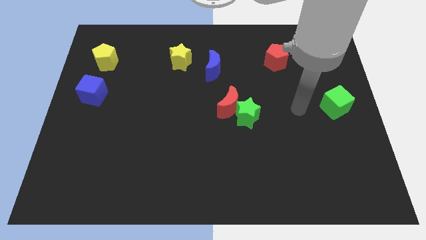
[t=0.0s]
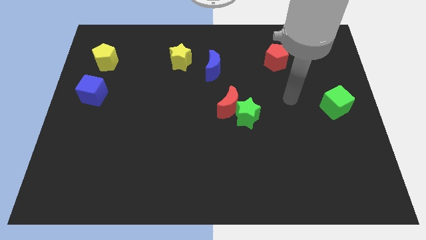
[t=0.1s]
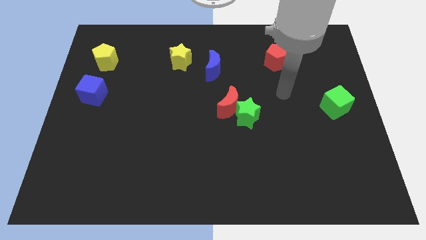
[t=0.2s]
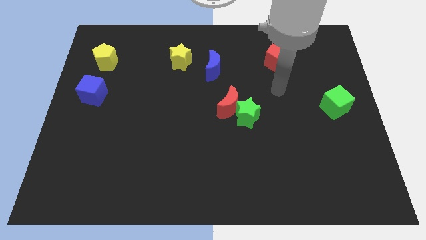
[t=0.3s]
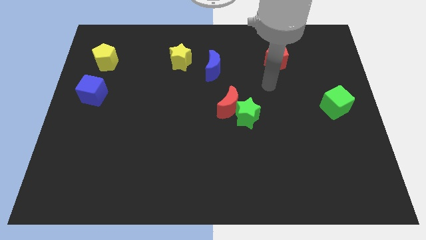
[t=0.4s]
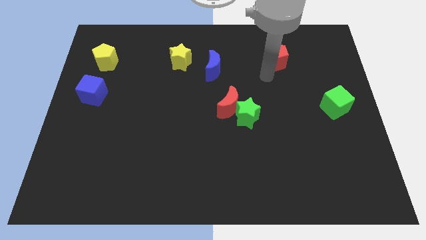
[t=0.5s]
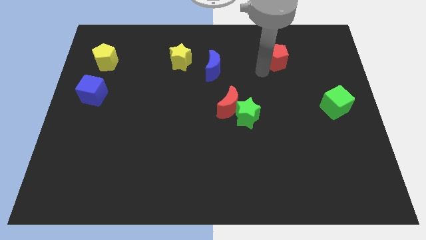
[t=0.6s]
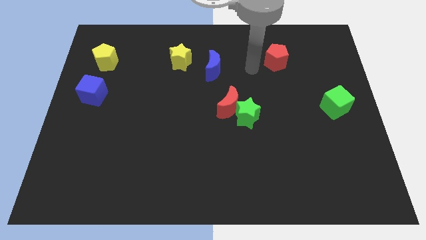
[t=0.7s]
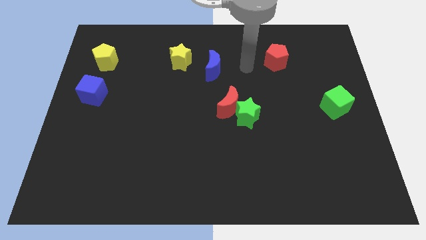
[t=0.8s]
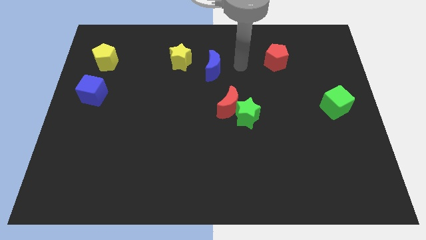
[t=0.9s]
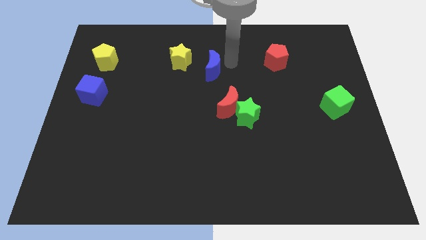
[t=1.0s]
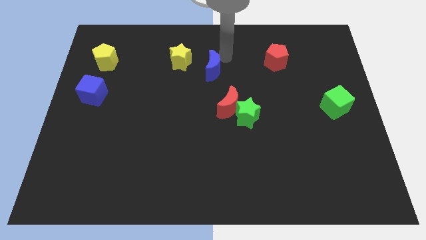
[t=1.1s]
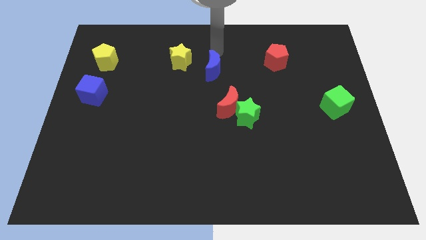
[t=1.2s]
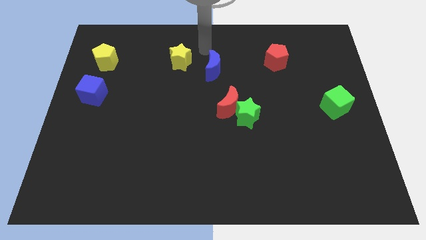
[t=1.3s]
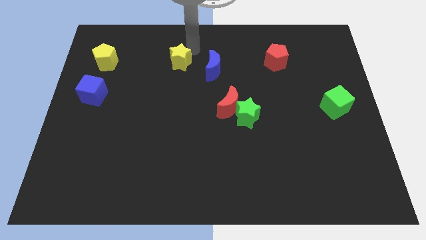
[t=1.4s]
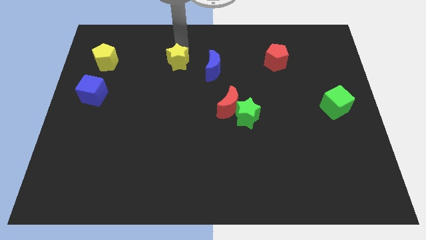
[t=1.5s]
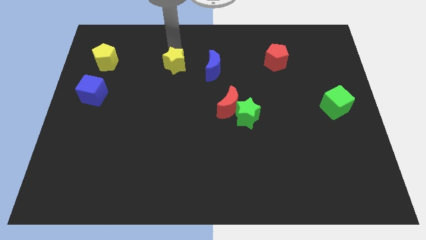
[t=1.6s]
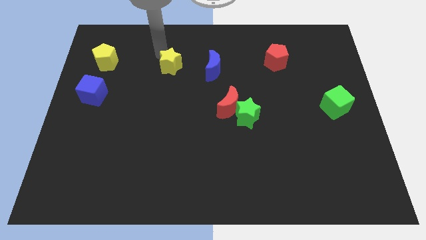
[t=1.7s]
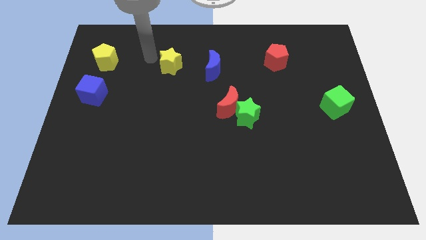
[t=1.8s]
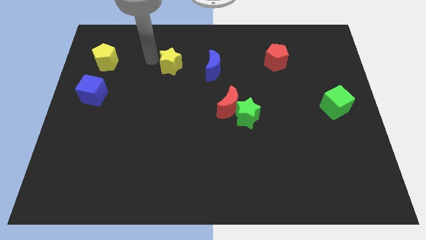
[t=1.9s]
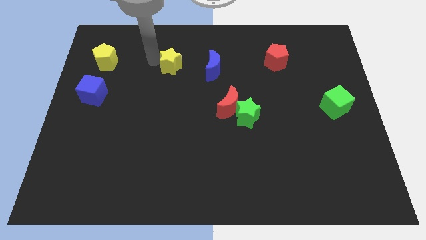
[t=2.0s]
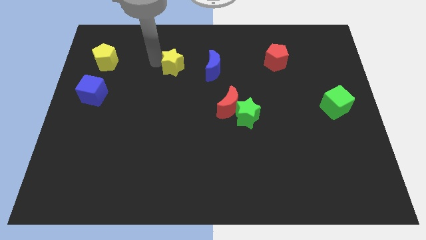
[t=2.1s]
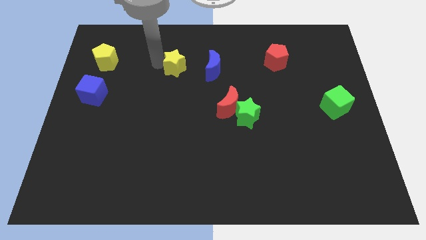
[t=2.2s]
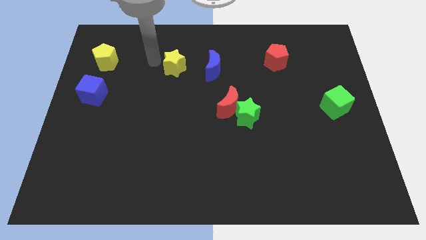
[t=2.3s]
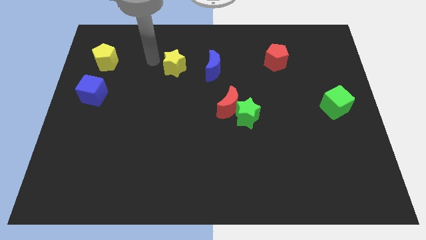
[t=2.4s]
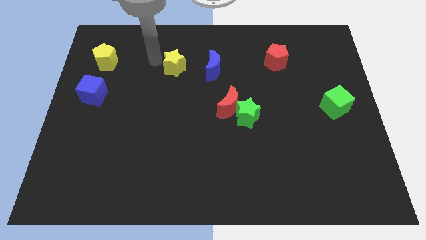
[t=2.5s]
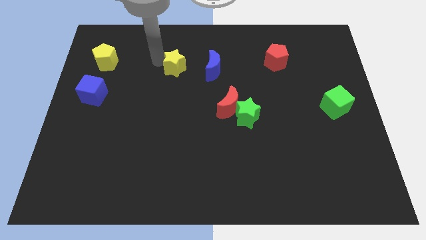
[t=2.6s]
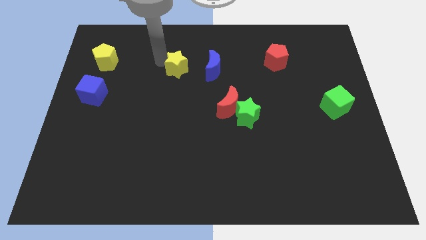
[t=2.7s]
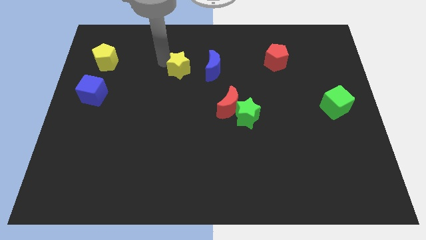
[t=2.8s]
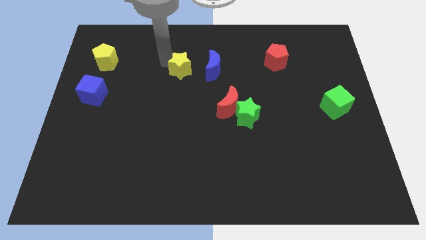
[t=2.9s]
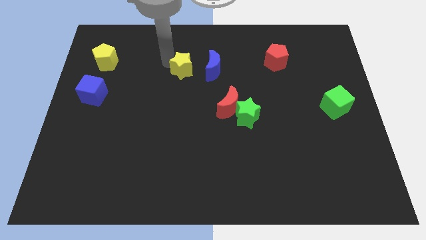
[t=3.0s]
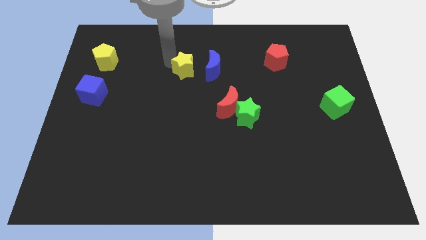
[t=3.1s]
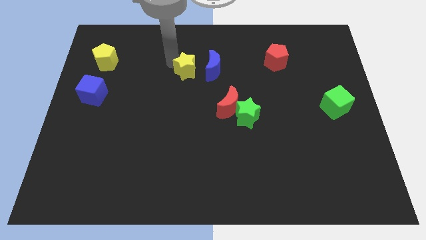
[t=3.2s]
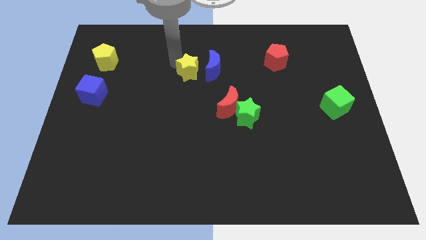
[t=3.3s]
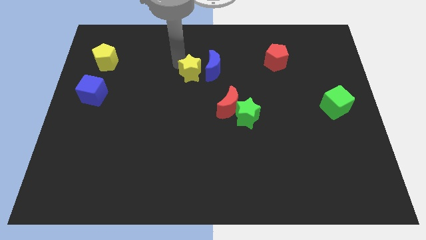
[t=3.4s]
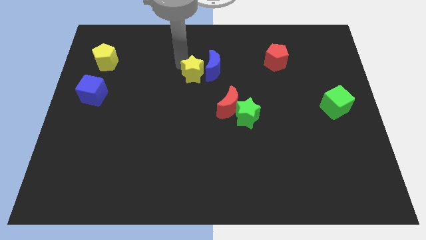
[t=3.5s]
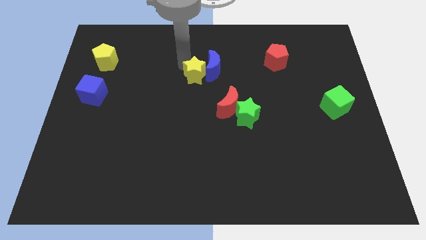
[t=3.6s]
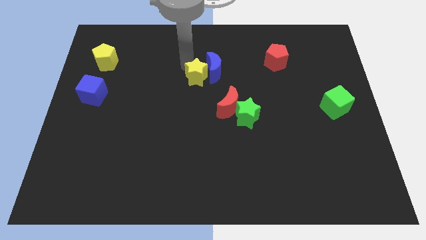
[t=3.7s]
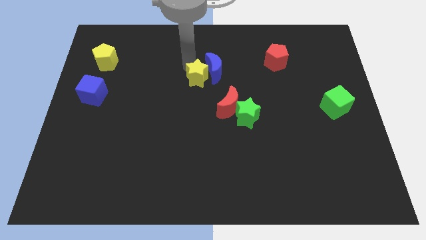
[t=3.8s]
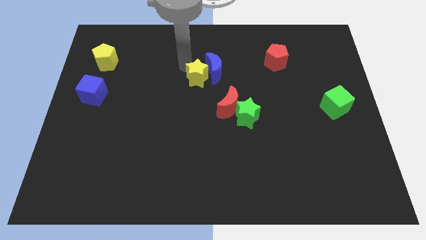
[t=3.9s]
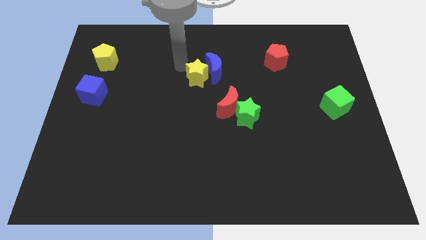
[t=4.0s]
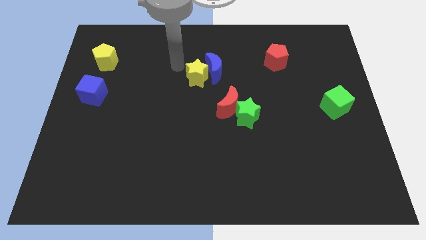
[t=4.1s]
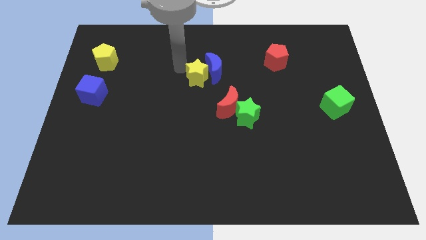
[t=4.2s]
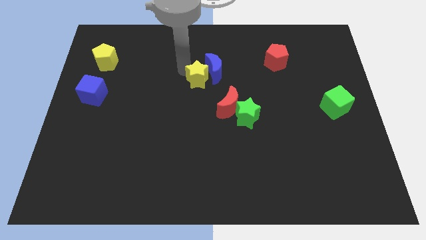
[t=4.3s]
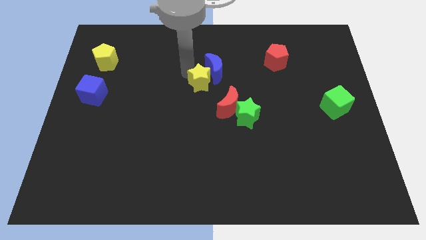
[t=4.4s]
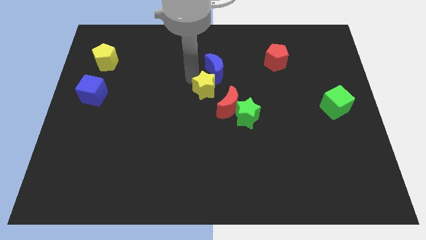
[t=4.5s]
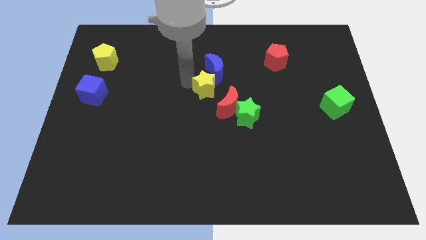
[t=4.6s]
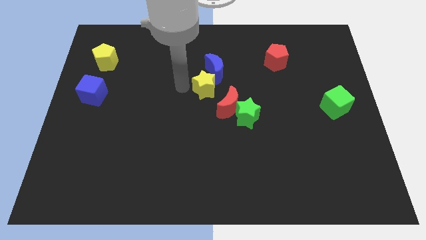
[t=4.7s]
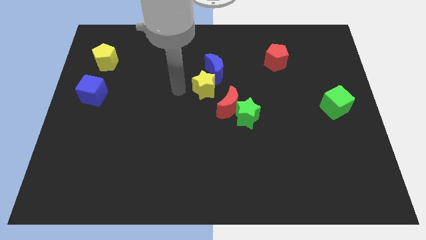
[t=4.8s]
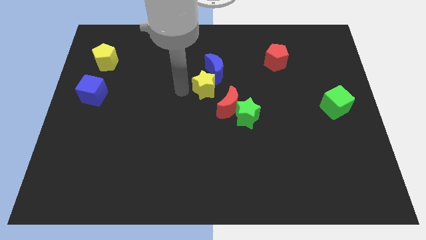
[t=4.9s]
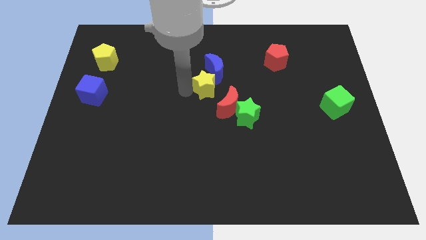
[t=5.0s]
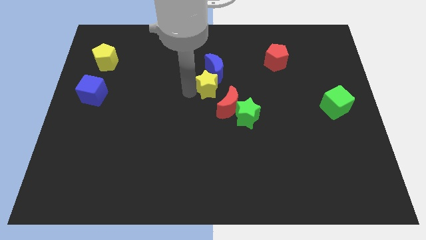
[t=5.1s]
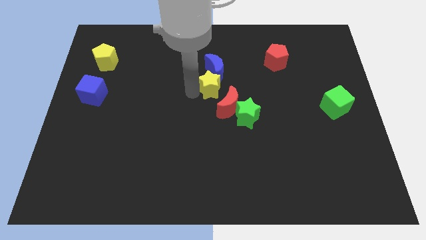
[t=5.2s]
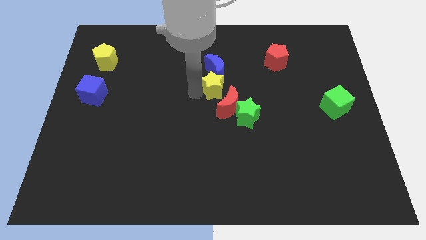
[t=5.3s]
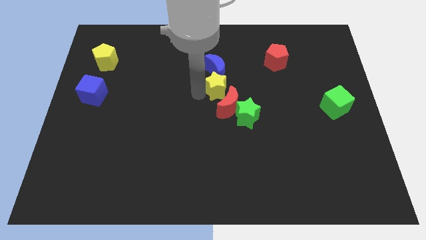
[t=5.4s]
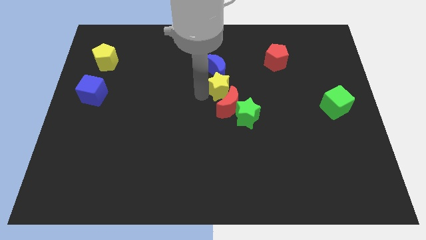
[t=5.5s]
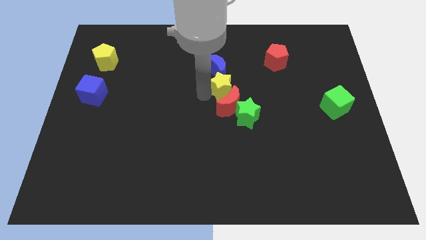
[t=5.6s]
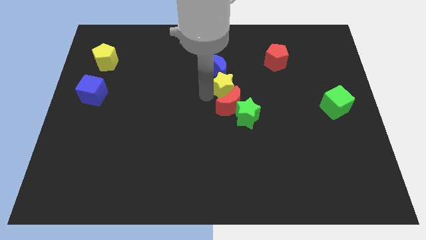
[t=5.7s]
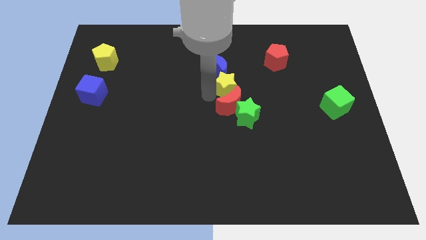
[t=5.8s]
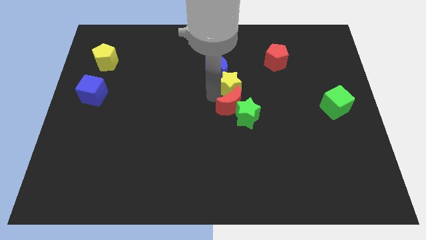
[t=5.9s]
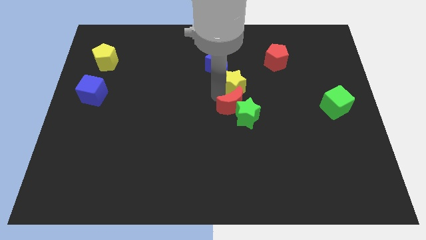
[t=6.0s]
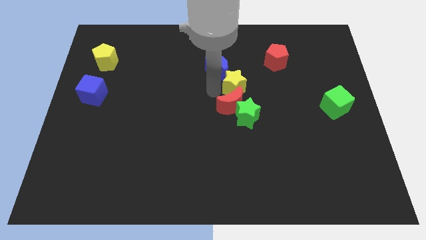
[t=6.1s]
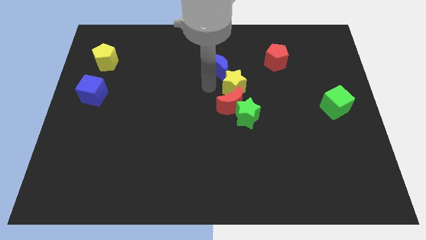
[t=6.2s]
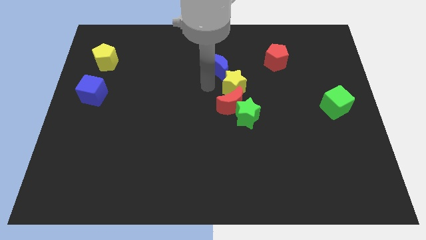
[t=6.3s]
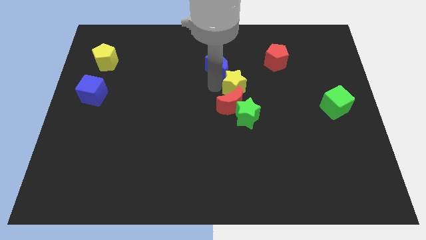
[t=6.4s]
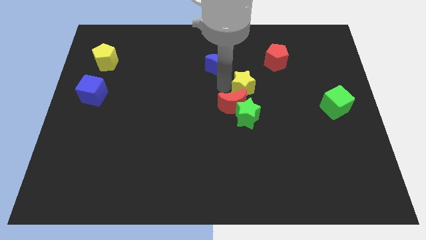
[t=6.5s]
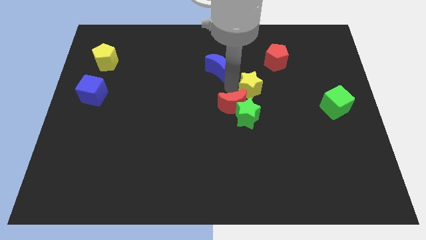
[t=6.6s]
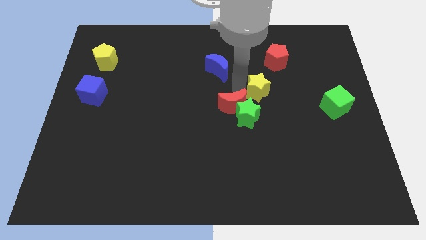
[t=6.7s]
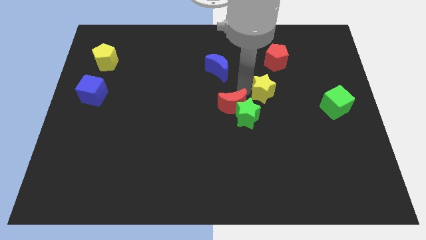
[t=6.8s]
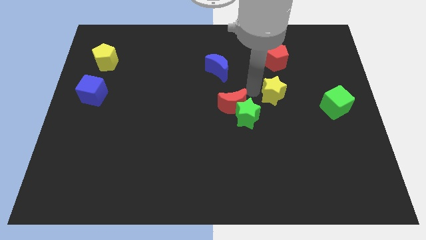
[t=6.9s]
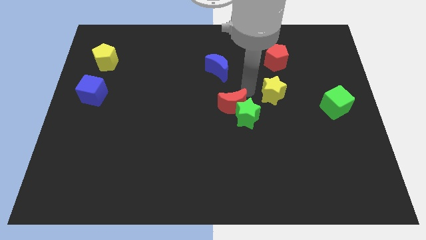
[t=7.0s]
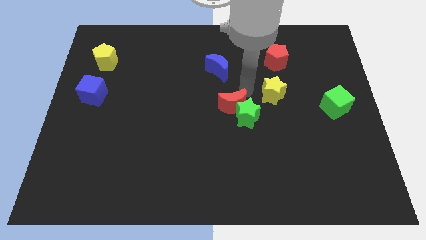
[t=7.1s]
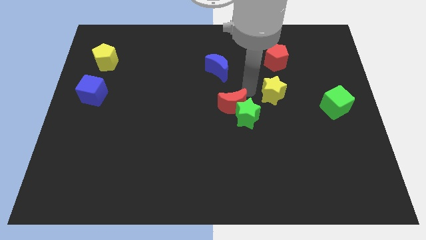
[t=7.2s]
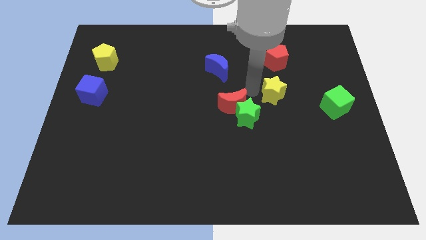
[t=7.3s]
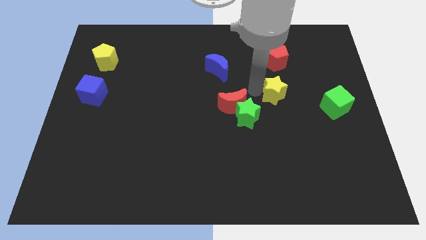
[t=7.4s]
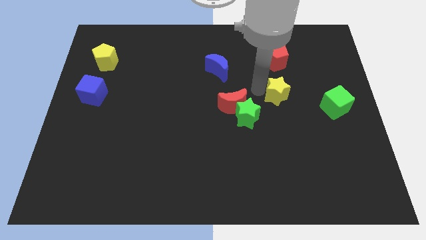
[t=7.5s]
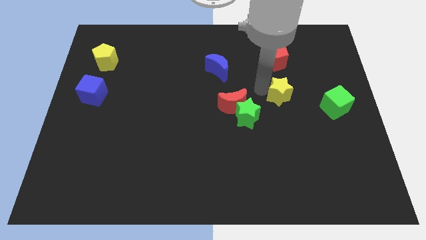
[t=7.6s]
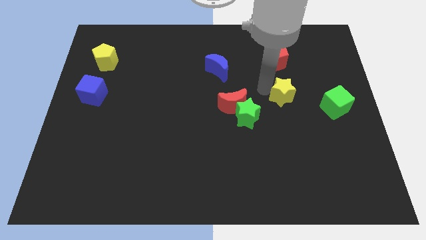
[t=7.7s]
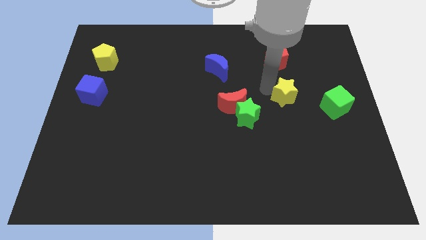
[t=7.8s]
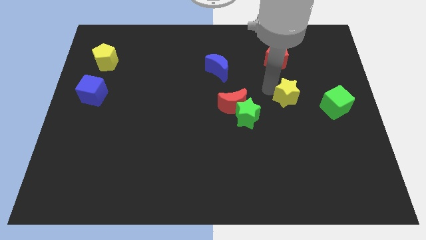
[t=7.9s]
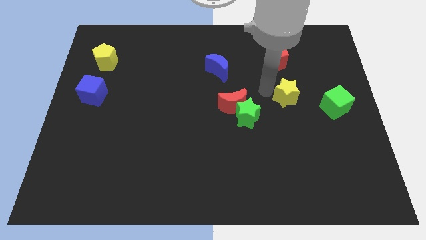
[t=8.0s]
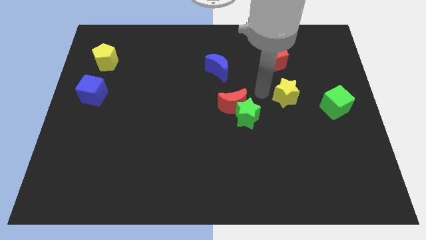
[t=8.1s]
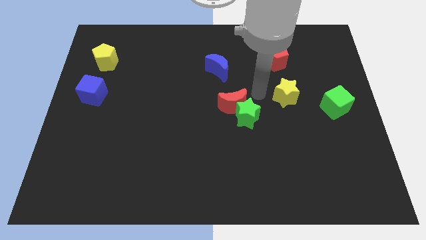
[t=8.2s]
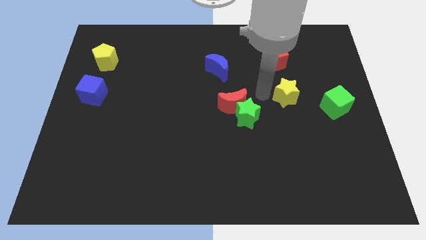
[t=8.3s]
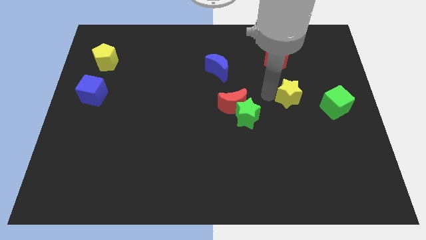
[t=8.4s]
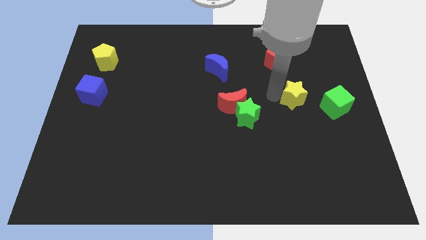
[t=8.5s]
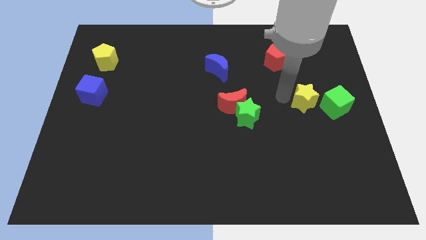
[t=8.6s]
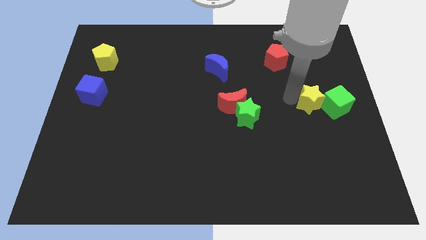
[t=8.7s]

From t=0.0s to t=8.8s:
put the yellow star close to the green cube
